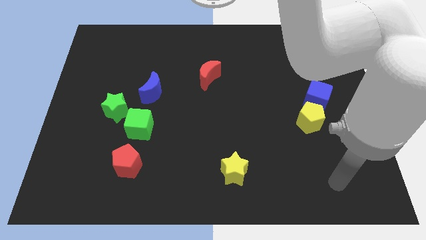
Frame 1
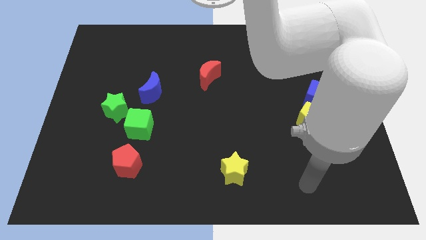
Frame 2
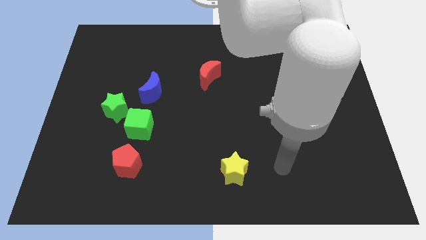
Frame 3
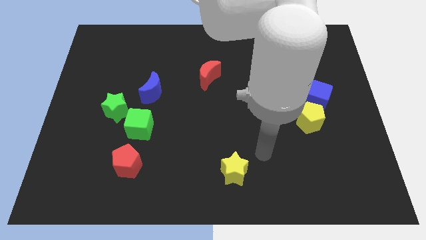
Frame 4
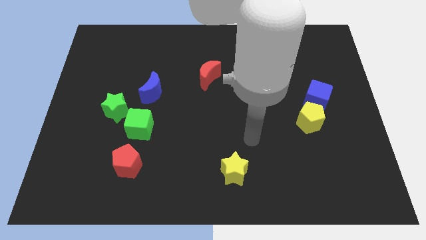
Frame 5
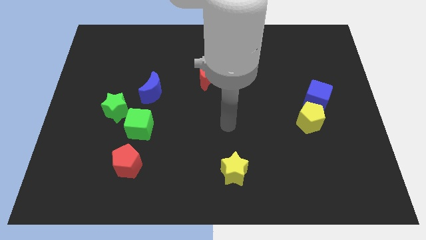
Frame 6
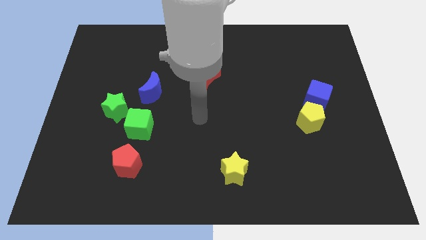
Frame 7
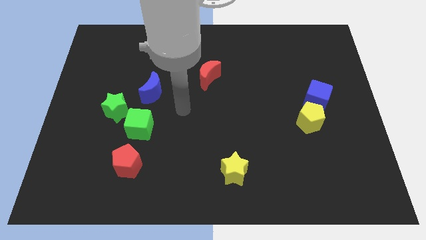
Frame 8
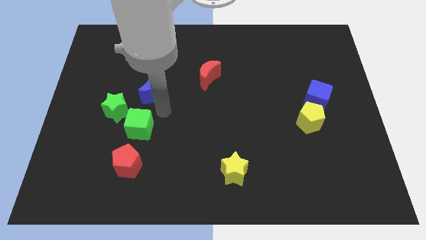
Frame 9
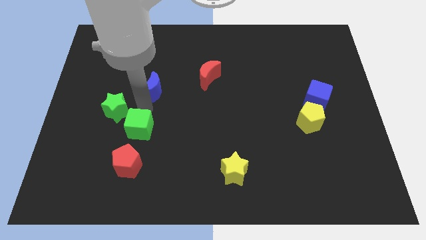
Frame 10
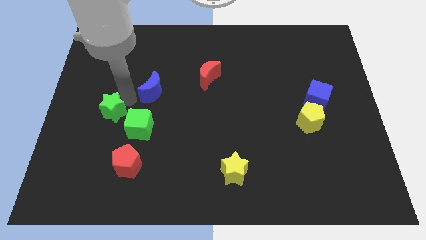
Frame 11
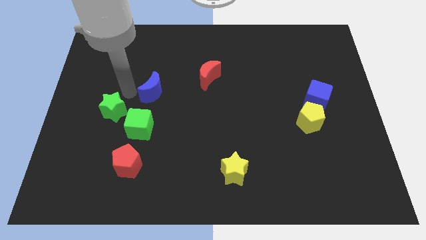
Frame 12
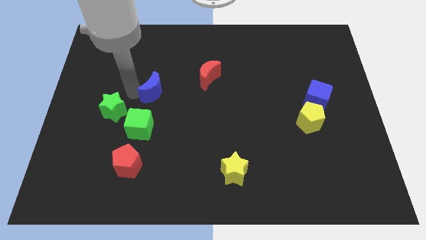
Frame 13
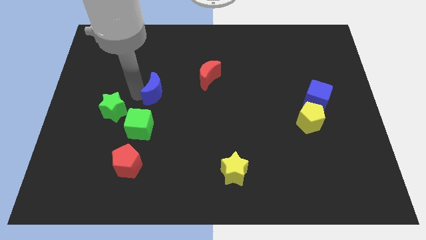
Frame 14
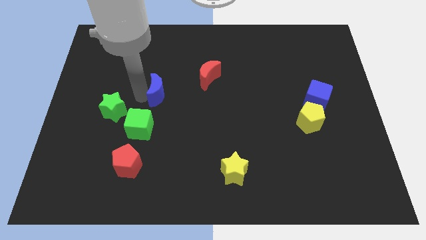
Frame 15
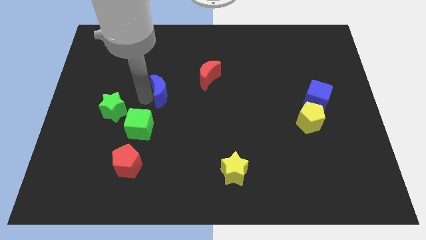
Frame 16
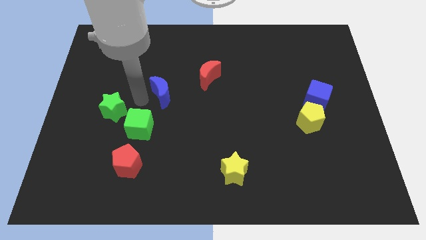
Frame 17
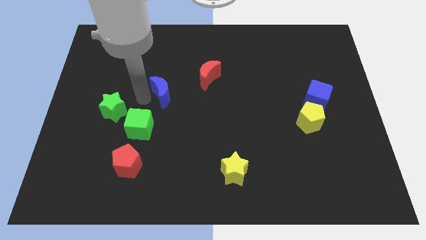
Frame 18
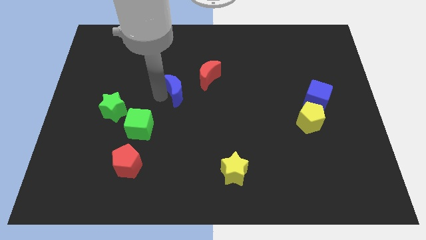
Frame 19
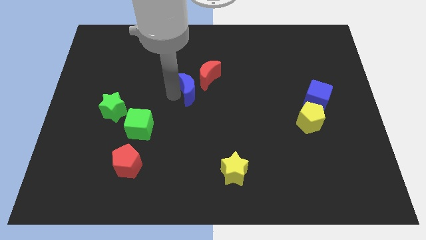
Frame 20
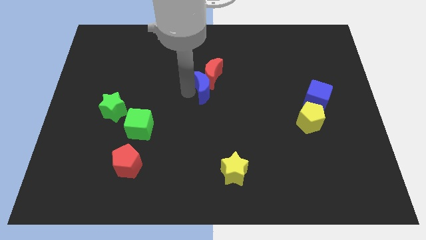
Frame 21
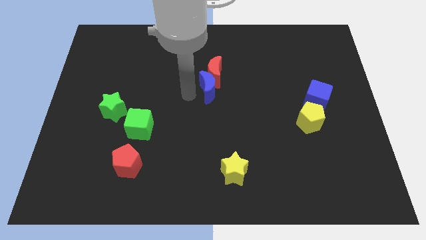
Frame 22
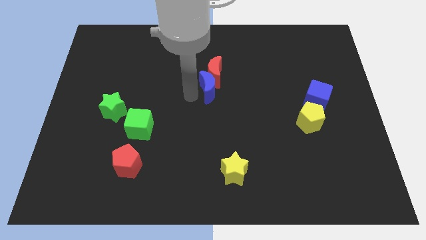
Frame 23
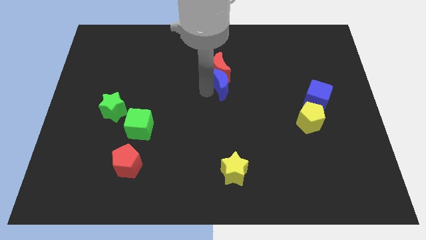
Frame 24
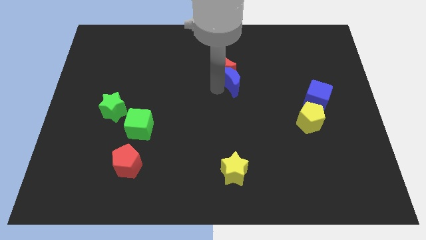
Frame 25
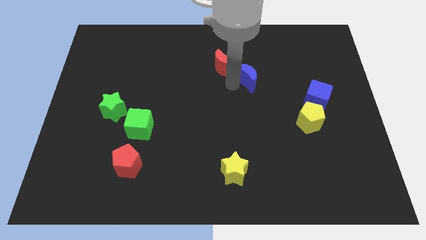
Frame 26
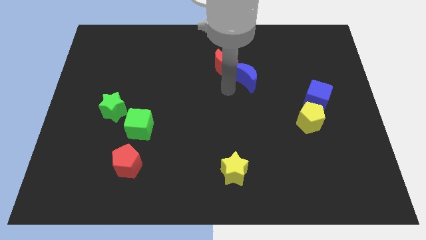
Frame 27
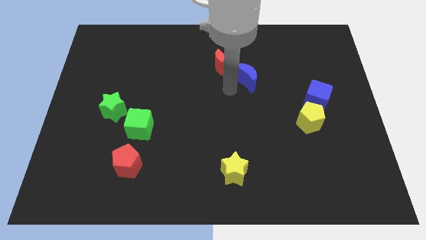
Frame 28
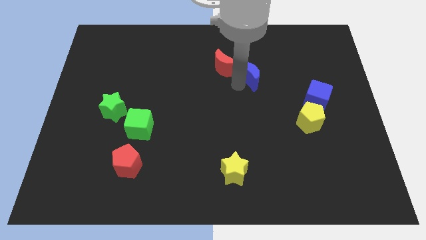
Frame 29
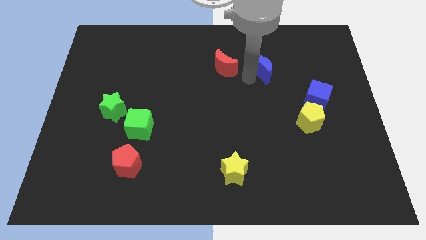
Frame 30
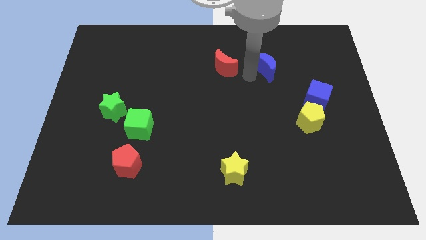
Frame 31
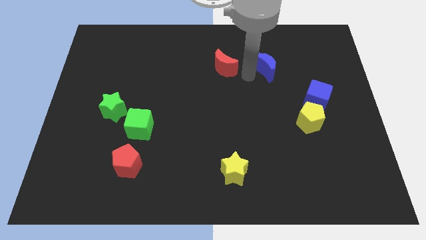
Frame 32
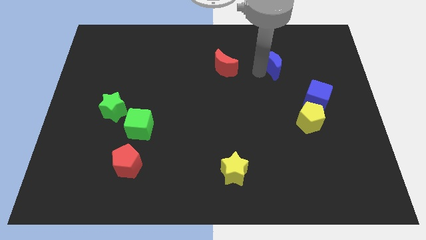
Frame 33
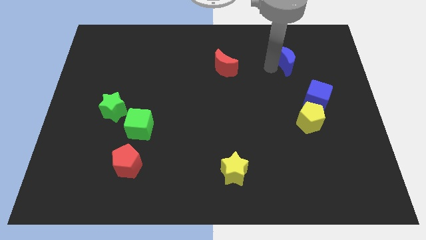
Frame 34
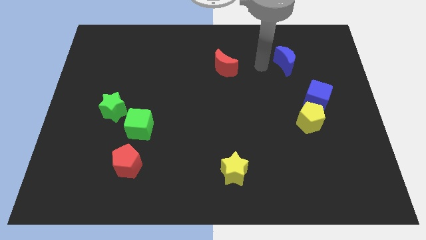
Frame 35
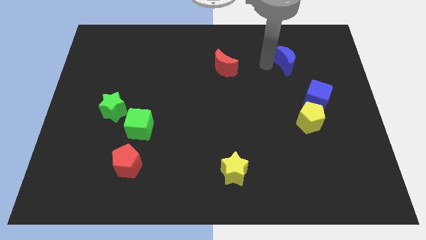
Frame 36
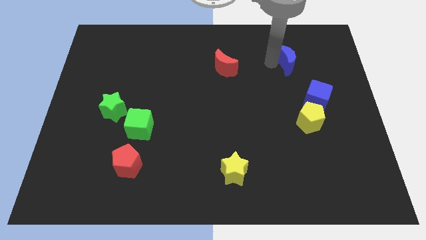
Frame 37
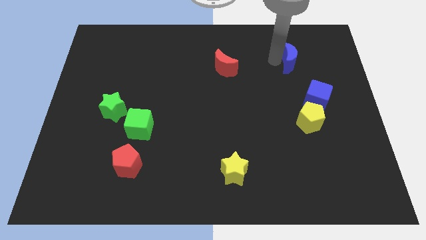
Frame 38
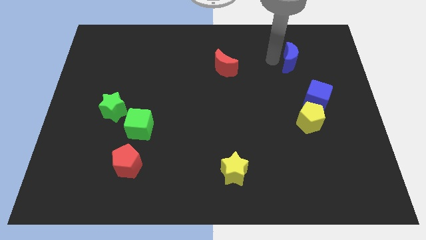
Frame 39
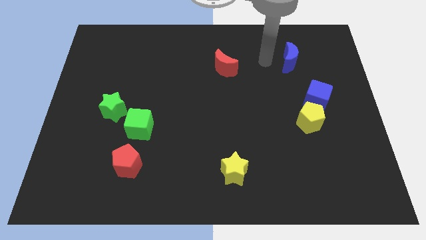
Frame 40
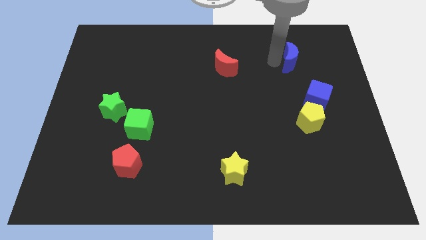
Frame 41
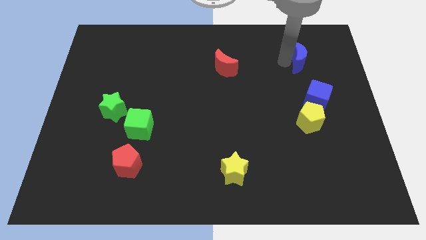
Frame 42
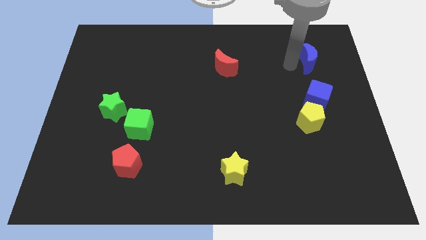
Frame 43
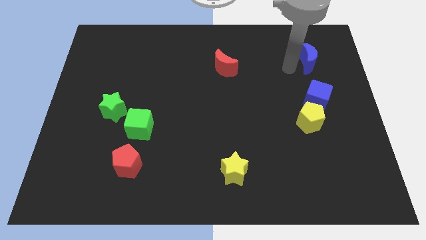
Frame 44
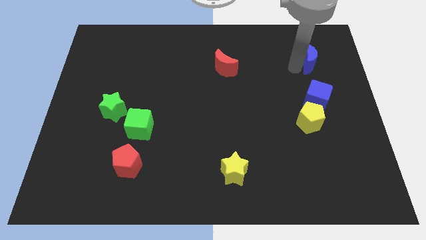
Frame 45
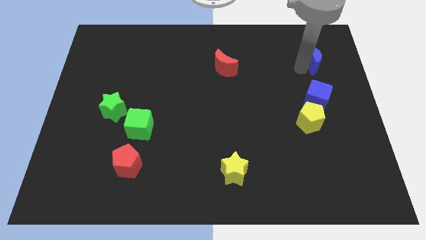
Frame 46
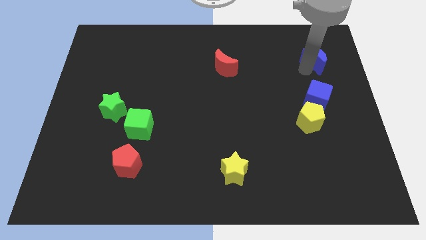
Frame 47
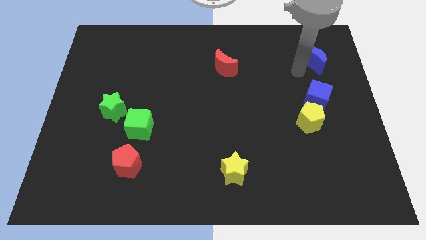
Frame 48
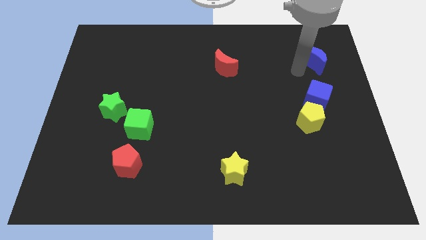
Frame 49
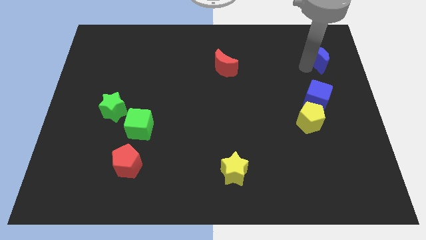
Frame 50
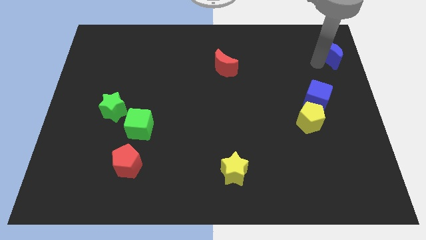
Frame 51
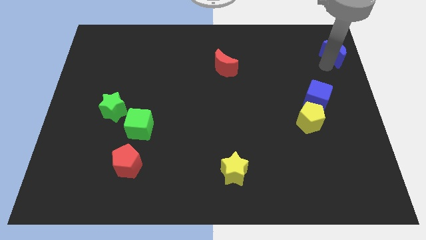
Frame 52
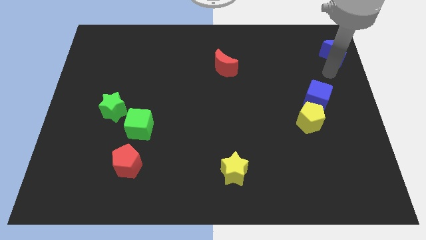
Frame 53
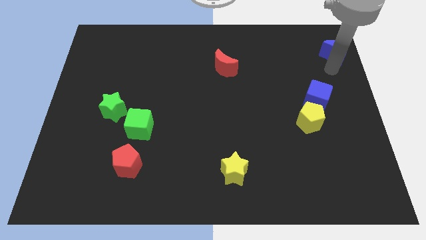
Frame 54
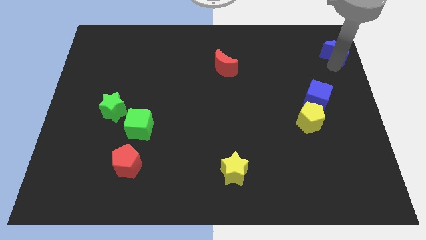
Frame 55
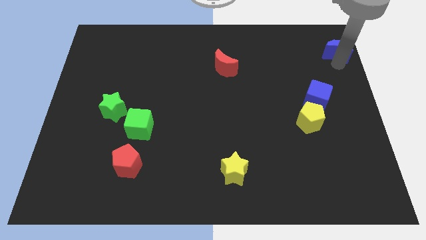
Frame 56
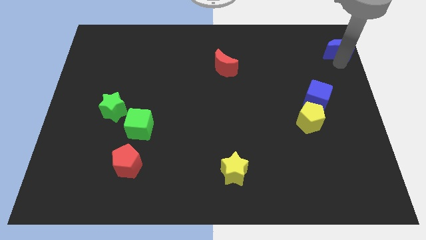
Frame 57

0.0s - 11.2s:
slide the blue moon to the upper right corner

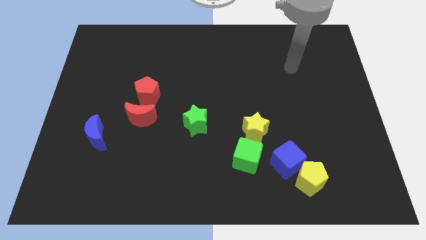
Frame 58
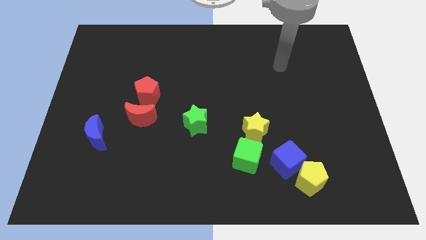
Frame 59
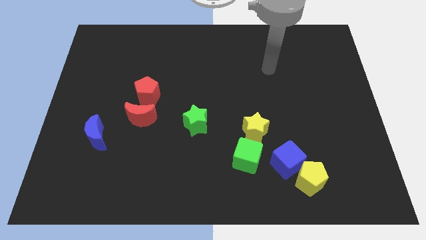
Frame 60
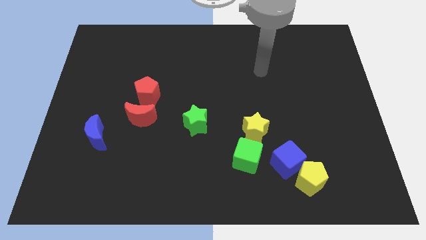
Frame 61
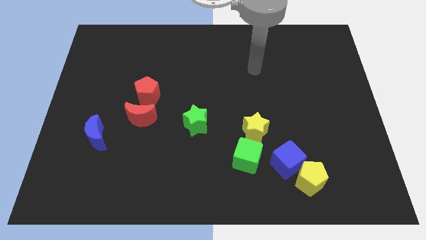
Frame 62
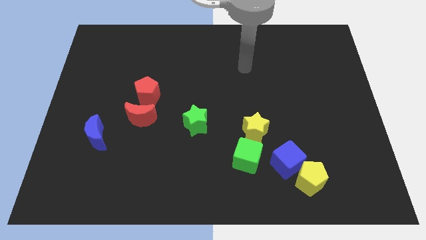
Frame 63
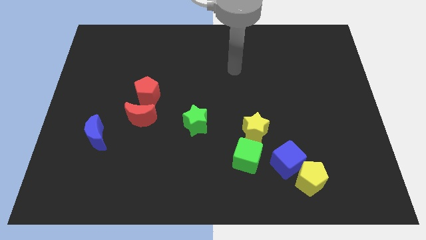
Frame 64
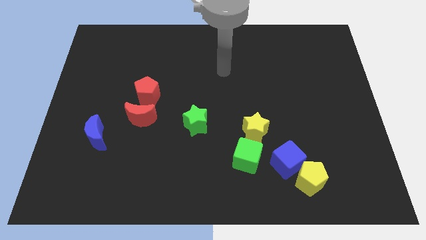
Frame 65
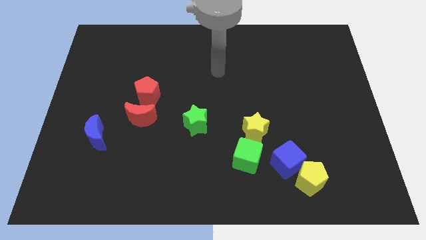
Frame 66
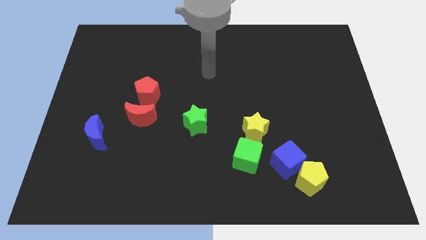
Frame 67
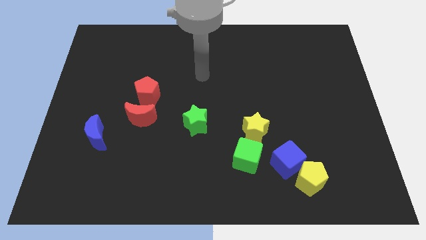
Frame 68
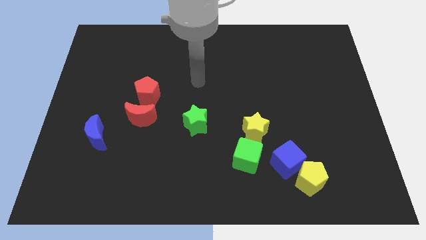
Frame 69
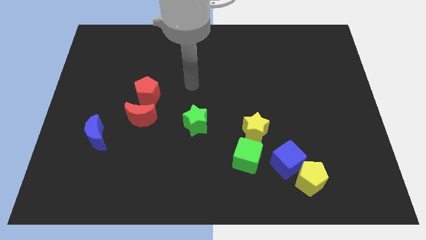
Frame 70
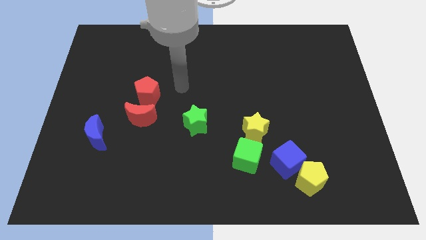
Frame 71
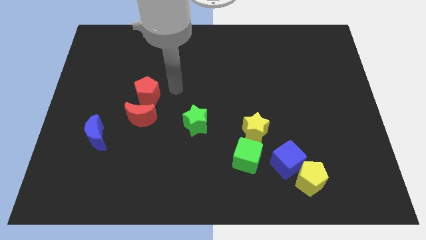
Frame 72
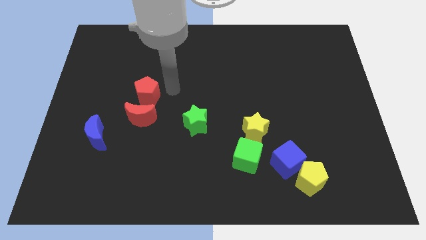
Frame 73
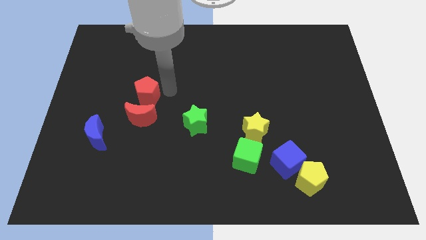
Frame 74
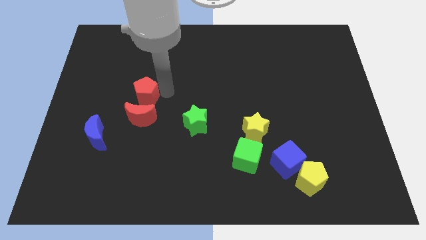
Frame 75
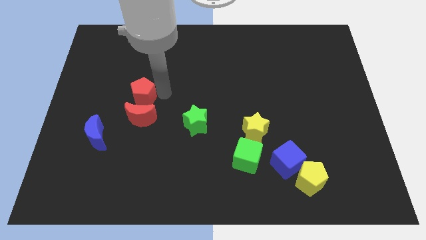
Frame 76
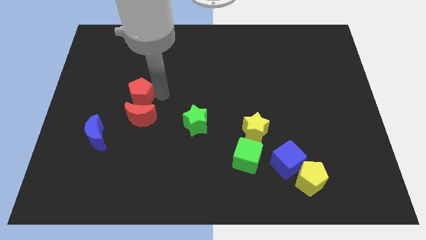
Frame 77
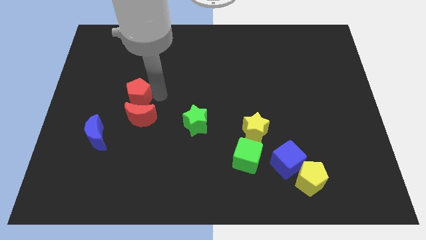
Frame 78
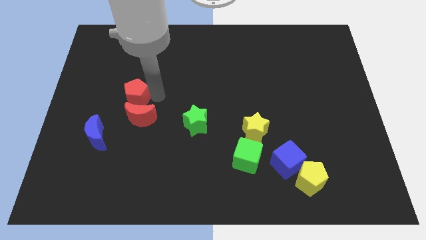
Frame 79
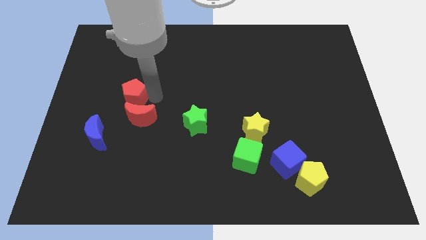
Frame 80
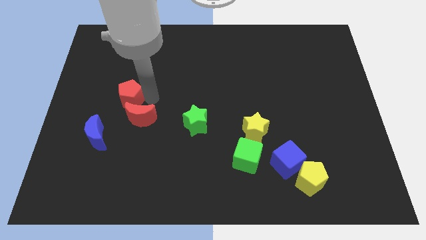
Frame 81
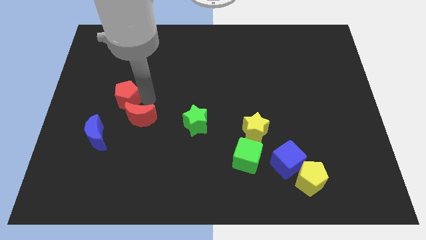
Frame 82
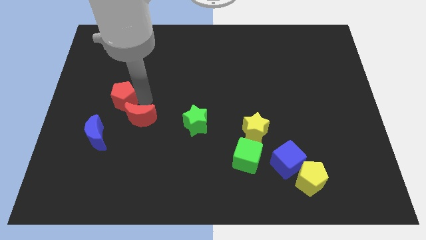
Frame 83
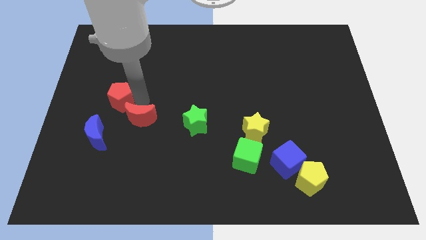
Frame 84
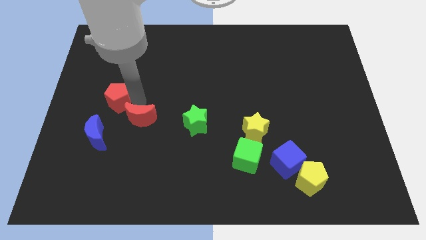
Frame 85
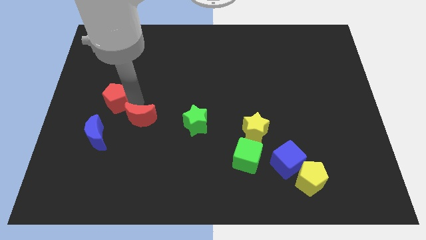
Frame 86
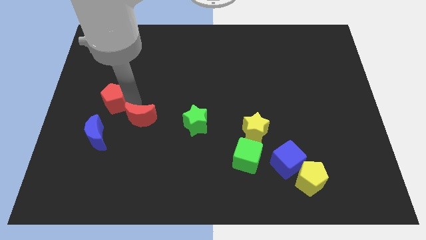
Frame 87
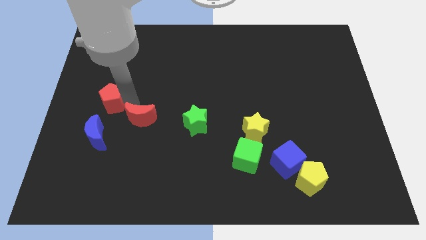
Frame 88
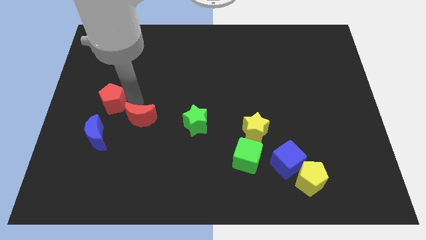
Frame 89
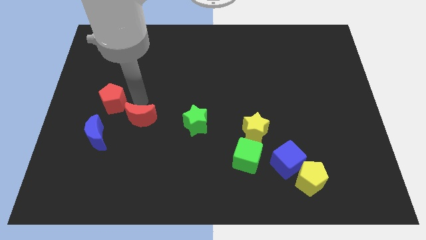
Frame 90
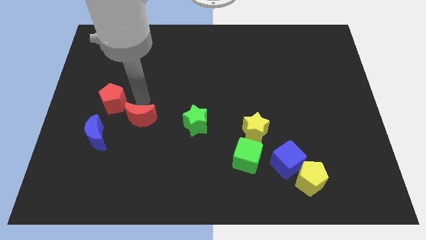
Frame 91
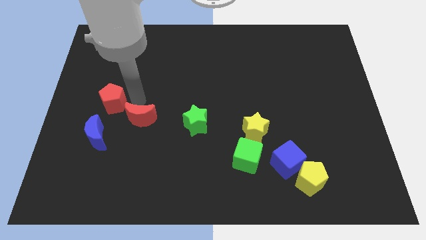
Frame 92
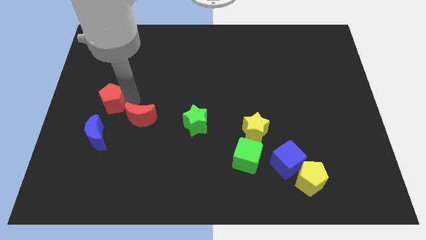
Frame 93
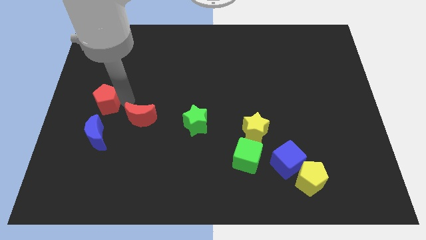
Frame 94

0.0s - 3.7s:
put the red pentagon to the left side of the board
